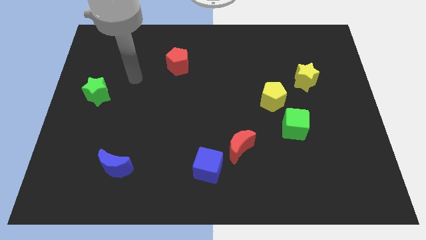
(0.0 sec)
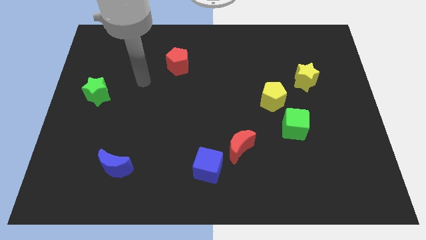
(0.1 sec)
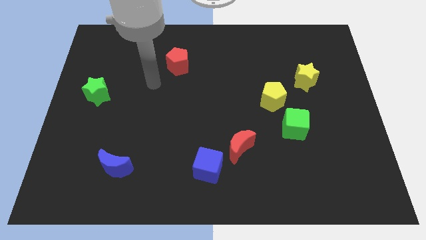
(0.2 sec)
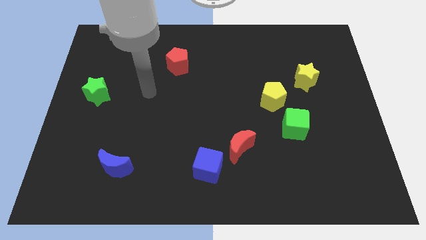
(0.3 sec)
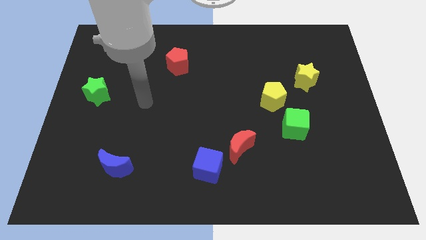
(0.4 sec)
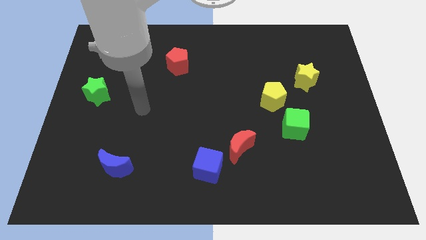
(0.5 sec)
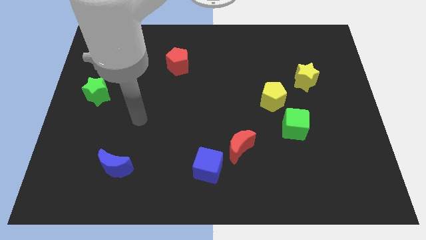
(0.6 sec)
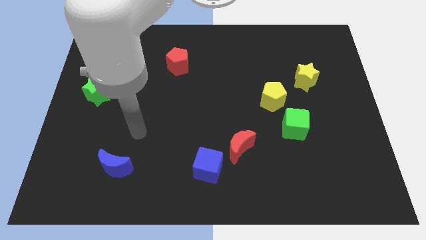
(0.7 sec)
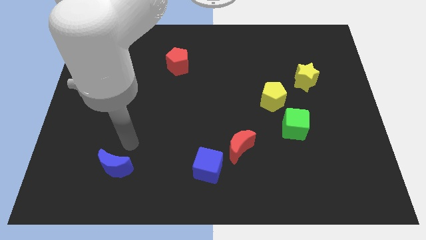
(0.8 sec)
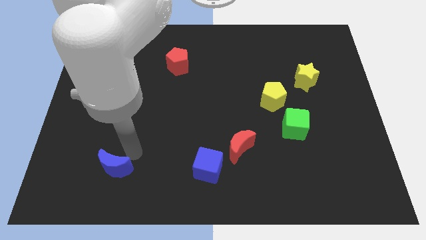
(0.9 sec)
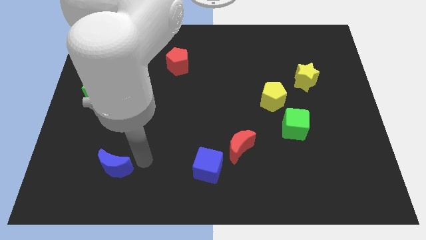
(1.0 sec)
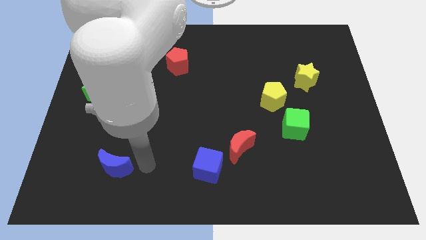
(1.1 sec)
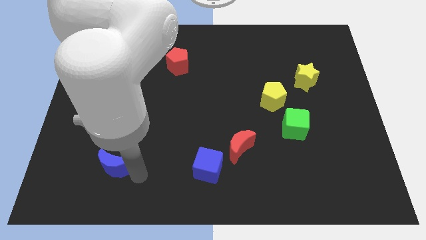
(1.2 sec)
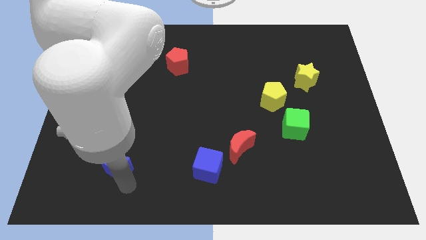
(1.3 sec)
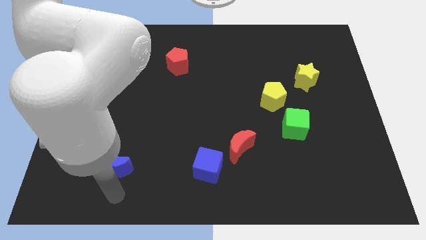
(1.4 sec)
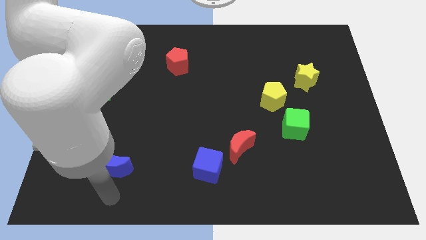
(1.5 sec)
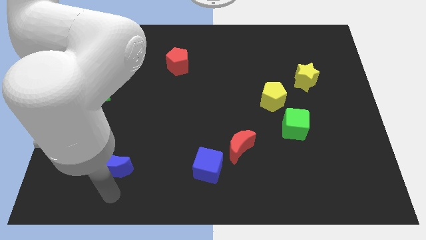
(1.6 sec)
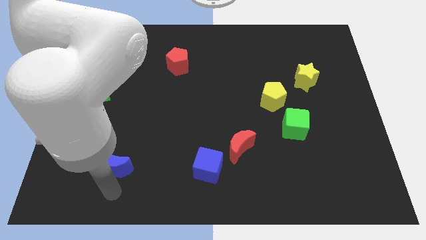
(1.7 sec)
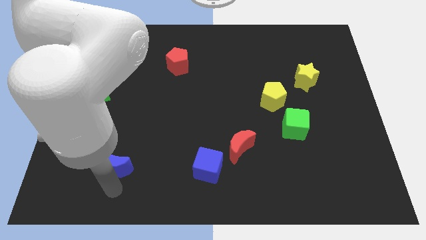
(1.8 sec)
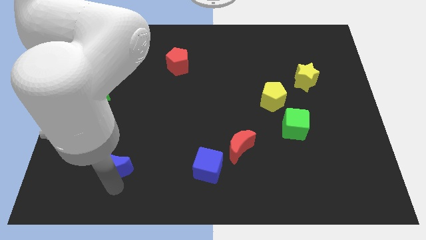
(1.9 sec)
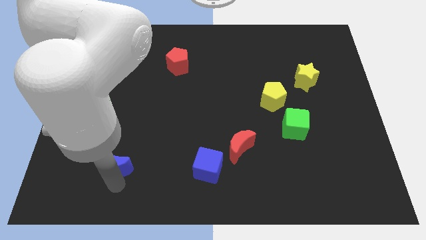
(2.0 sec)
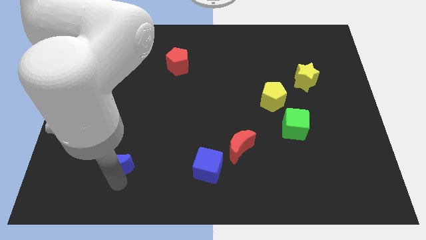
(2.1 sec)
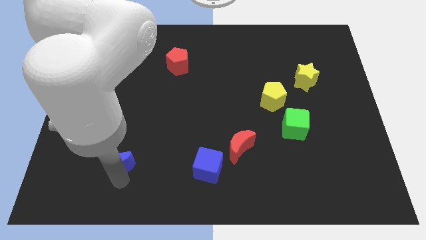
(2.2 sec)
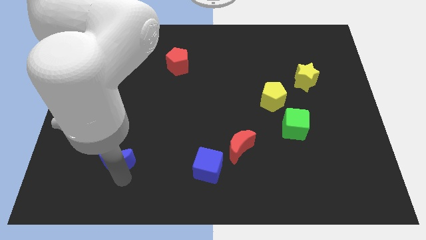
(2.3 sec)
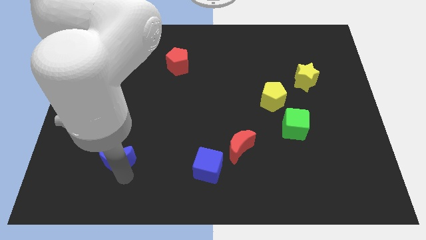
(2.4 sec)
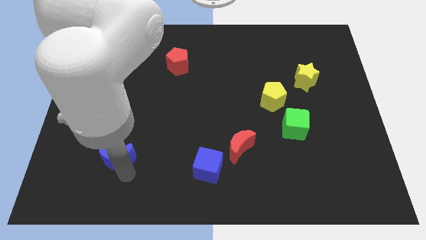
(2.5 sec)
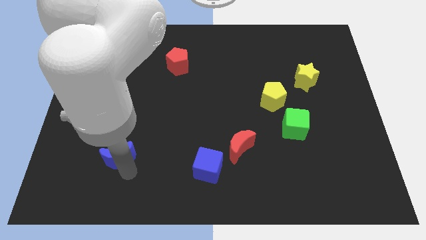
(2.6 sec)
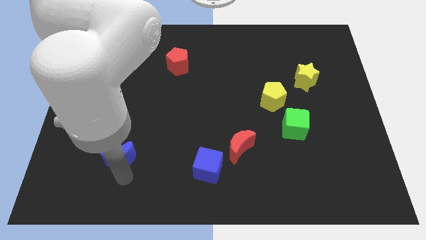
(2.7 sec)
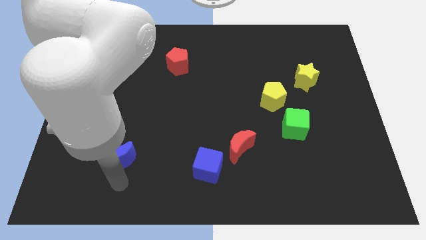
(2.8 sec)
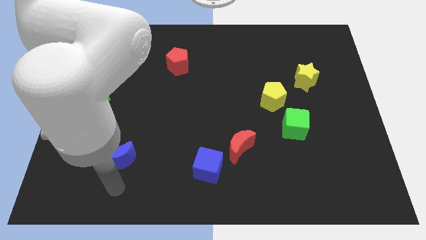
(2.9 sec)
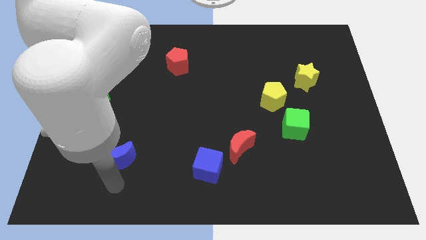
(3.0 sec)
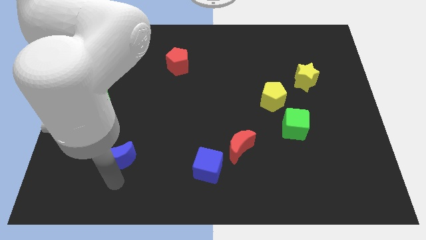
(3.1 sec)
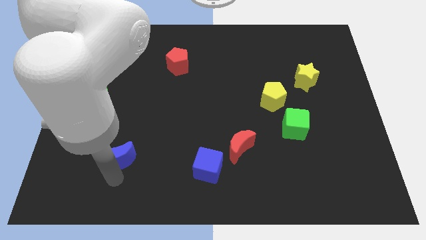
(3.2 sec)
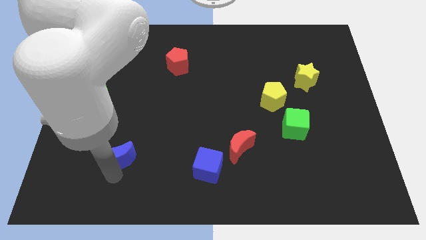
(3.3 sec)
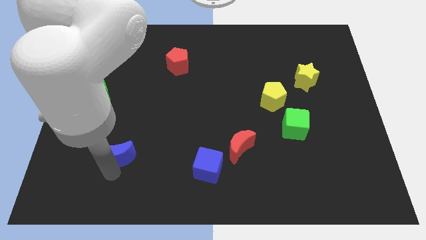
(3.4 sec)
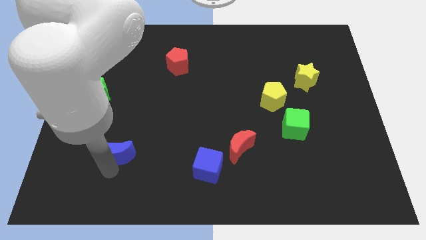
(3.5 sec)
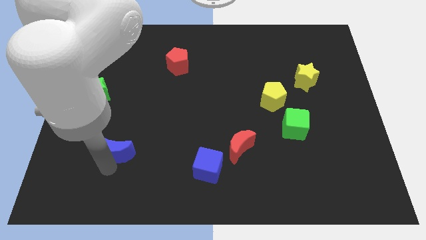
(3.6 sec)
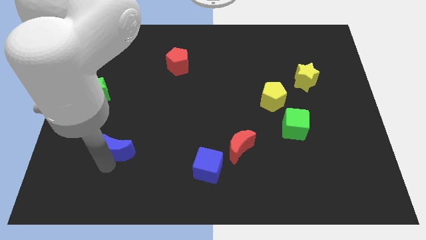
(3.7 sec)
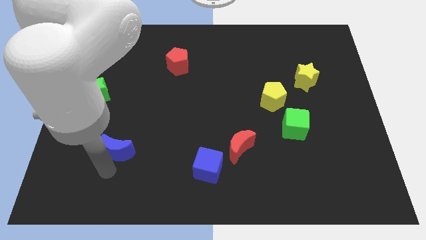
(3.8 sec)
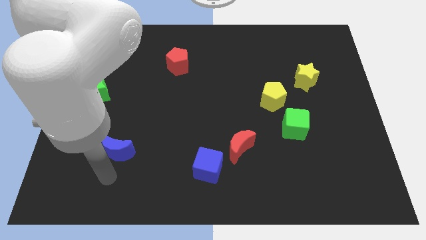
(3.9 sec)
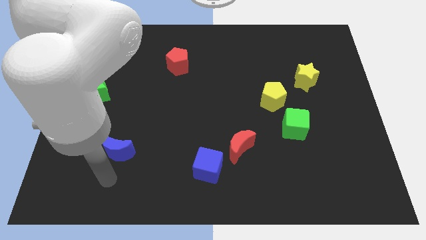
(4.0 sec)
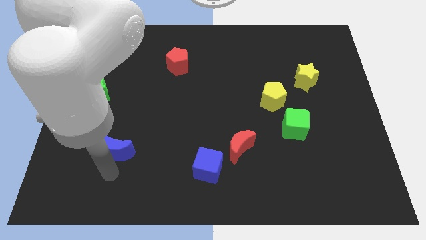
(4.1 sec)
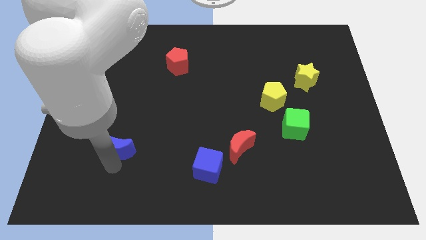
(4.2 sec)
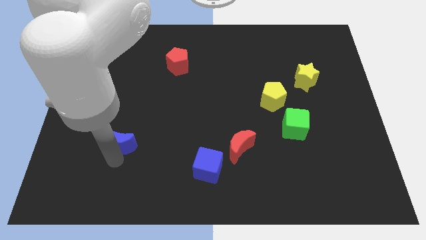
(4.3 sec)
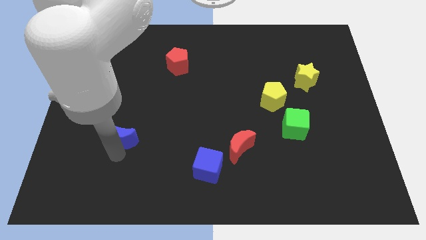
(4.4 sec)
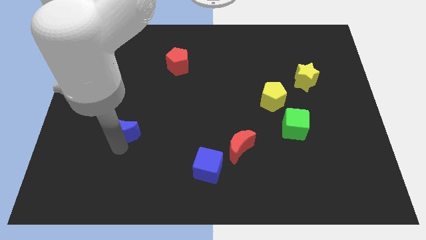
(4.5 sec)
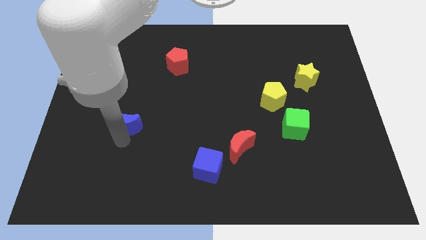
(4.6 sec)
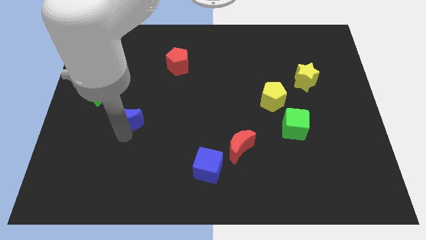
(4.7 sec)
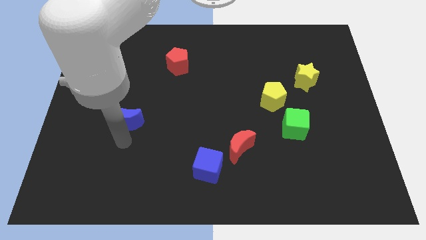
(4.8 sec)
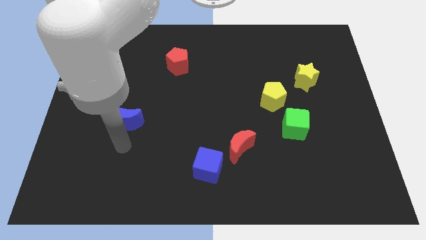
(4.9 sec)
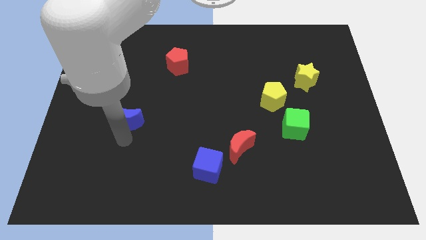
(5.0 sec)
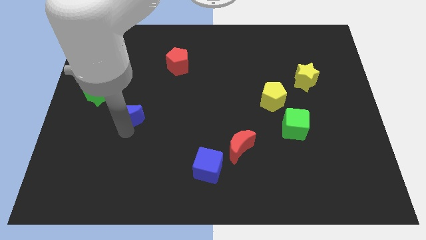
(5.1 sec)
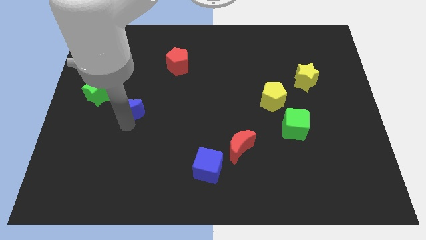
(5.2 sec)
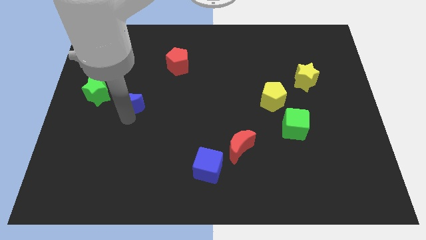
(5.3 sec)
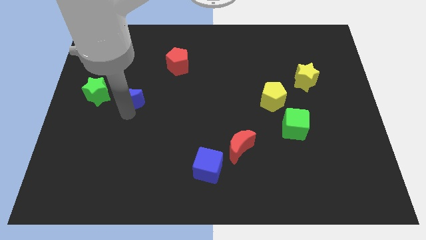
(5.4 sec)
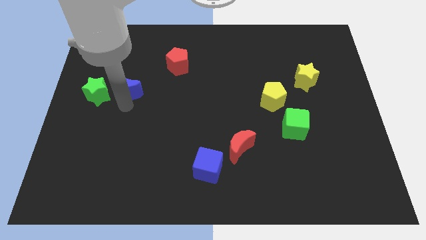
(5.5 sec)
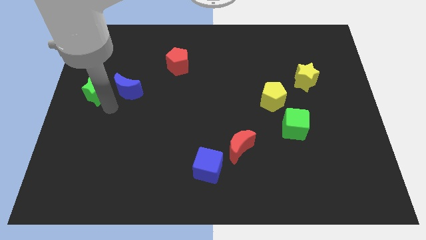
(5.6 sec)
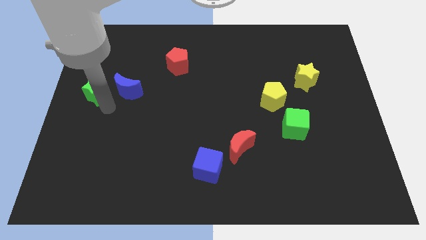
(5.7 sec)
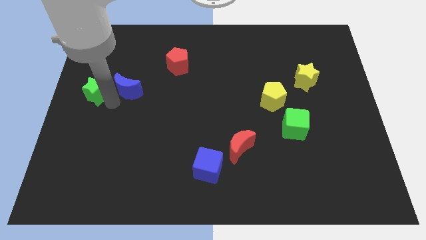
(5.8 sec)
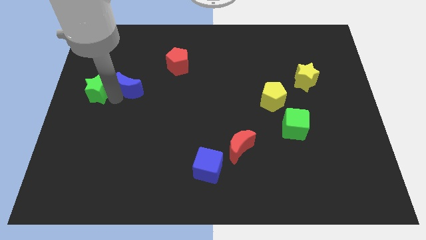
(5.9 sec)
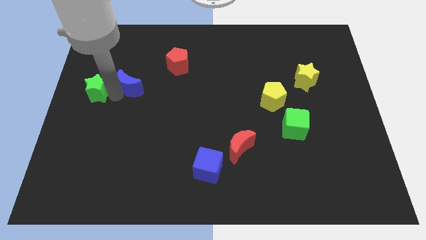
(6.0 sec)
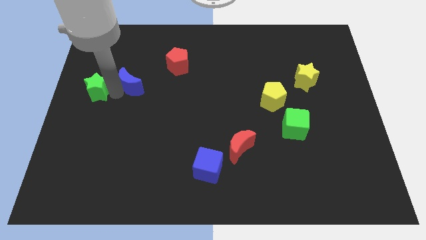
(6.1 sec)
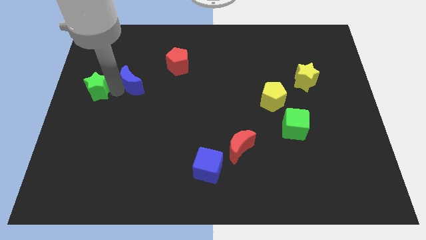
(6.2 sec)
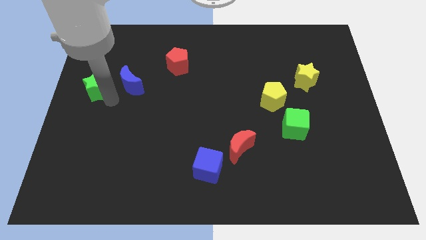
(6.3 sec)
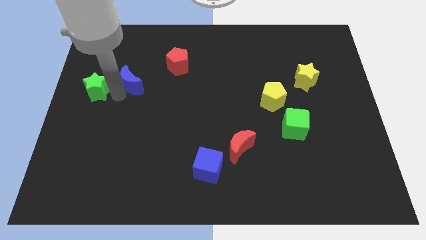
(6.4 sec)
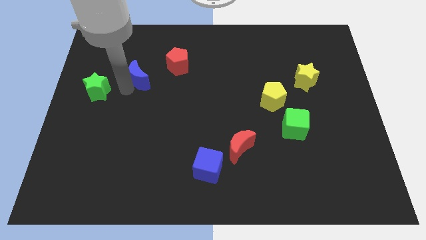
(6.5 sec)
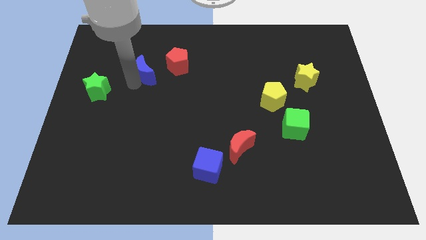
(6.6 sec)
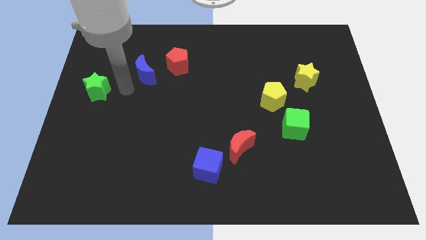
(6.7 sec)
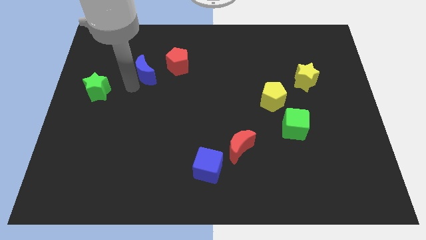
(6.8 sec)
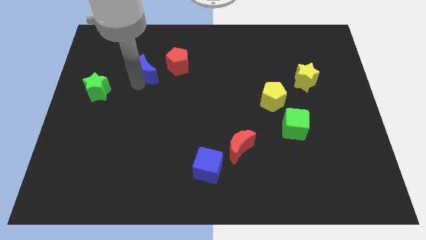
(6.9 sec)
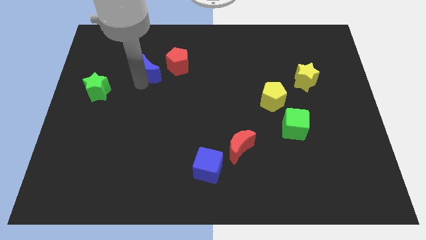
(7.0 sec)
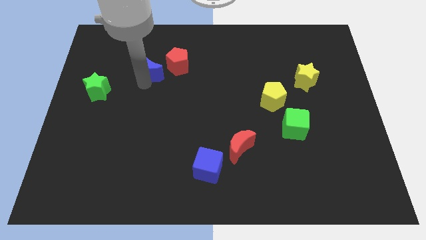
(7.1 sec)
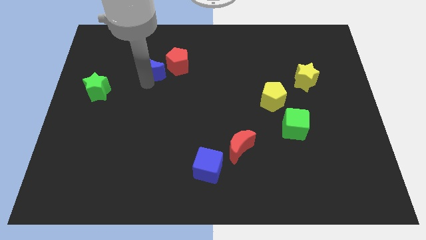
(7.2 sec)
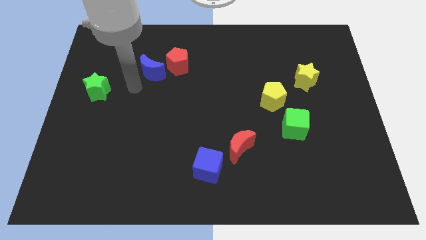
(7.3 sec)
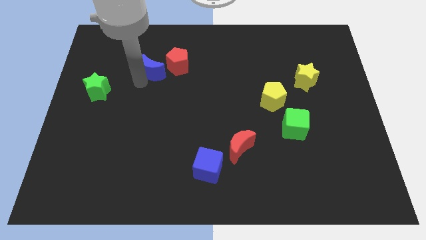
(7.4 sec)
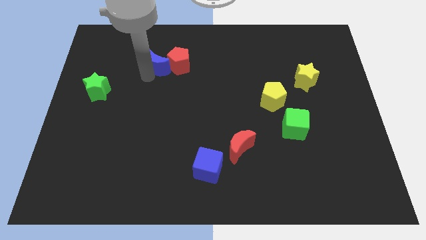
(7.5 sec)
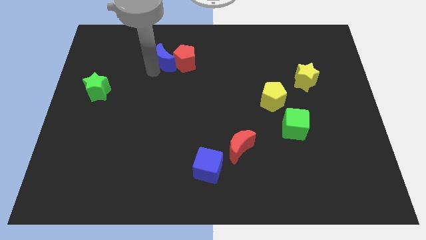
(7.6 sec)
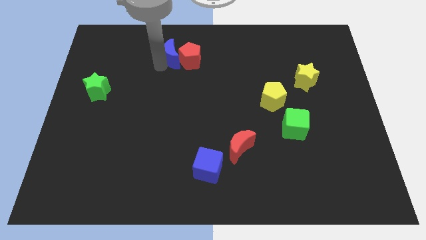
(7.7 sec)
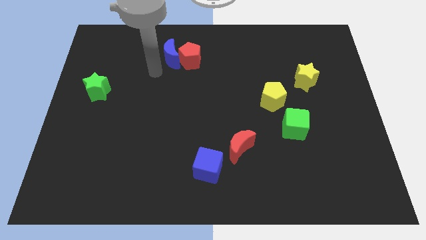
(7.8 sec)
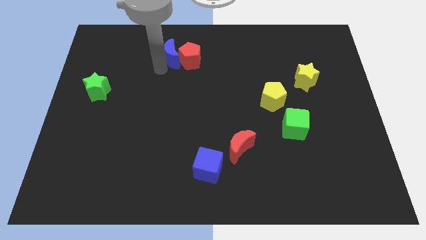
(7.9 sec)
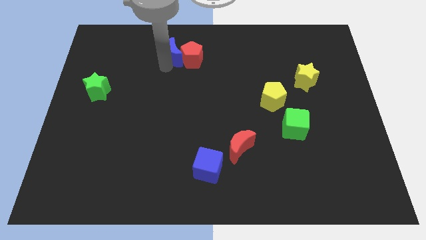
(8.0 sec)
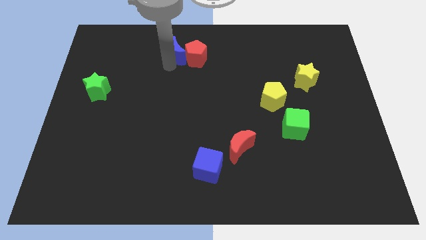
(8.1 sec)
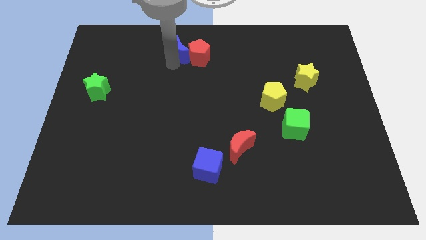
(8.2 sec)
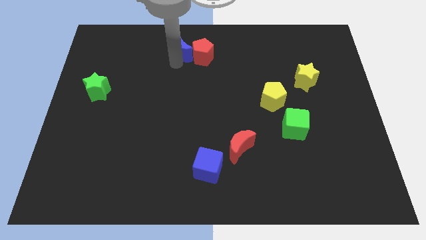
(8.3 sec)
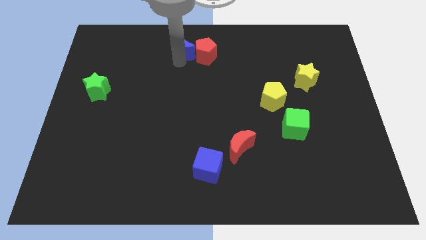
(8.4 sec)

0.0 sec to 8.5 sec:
slide the blue moon to the towards your base
